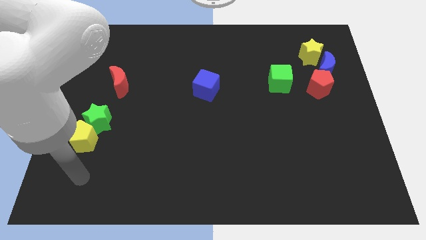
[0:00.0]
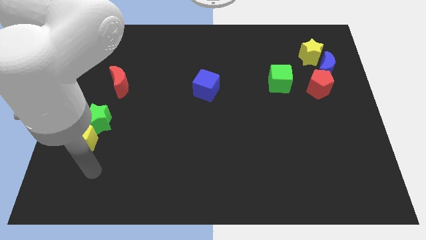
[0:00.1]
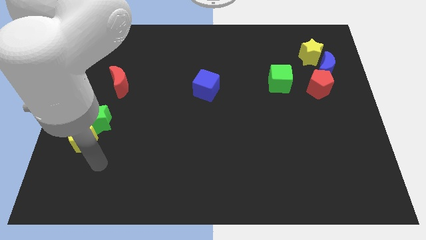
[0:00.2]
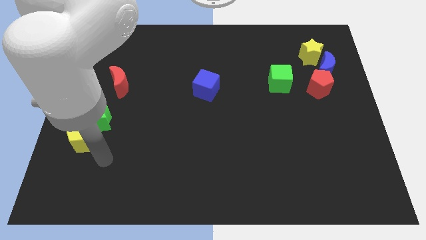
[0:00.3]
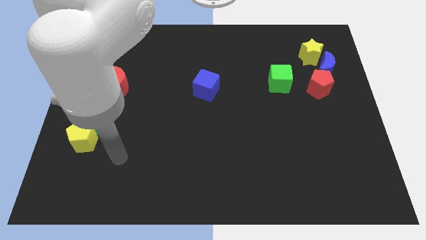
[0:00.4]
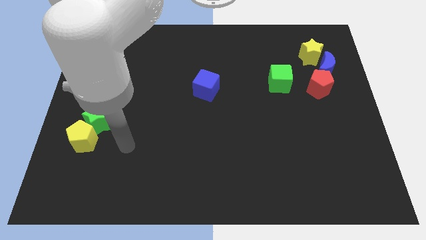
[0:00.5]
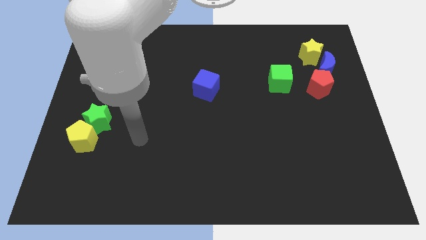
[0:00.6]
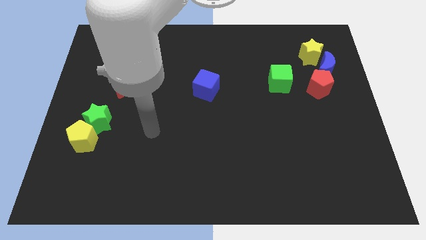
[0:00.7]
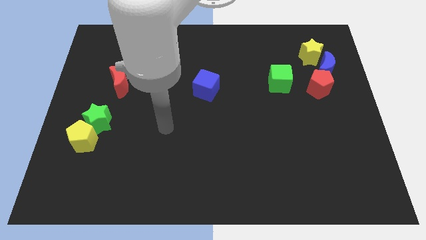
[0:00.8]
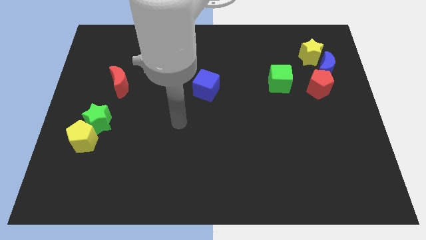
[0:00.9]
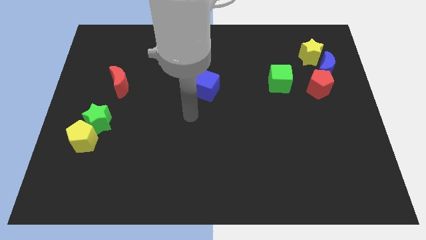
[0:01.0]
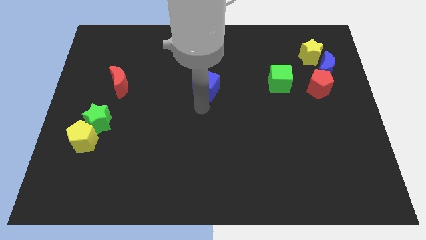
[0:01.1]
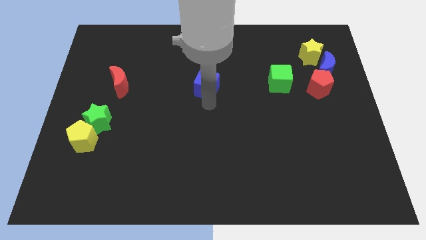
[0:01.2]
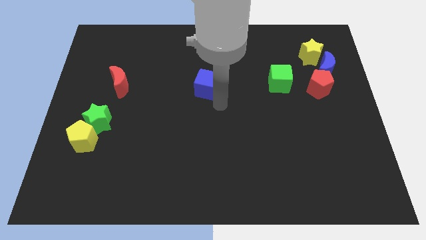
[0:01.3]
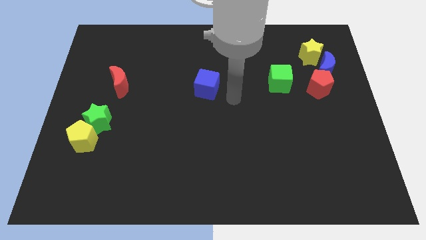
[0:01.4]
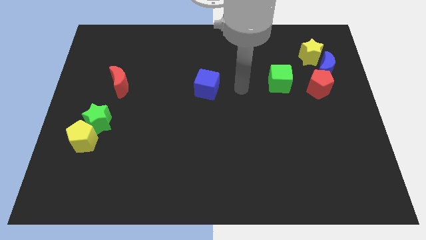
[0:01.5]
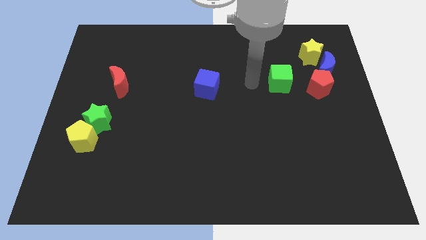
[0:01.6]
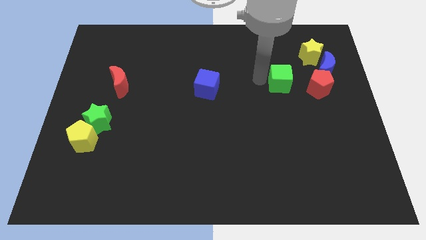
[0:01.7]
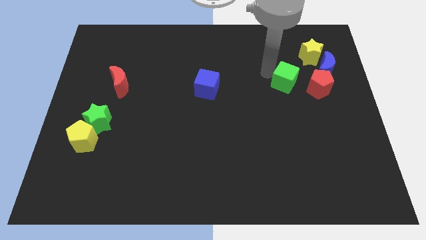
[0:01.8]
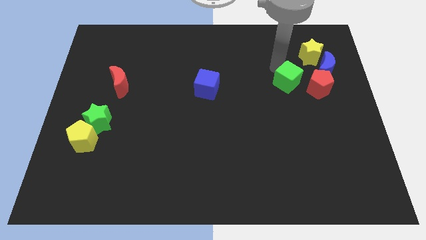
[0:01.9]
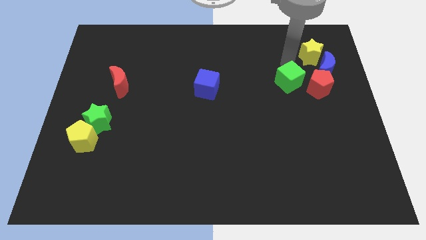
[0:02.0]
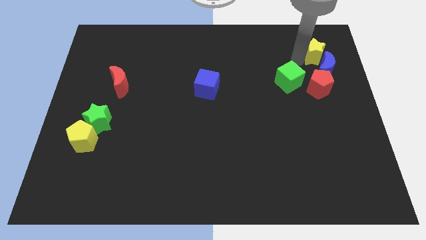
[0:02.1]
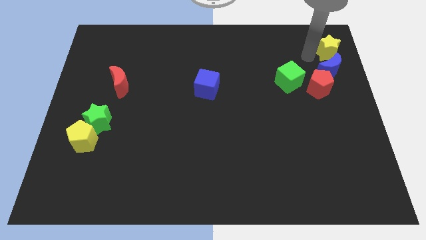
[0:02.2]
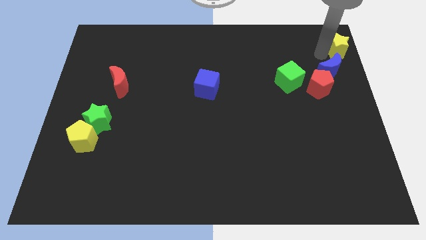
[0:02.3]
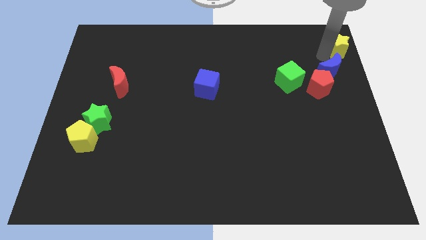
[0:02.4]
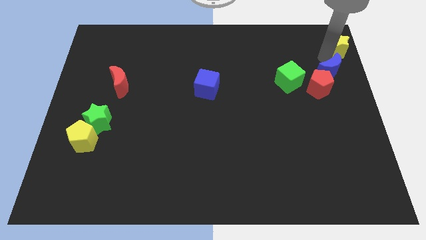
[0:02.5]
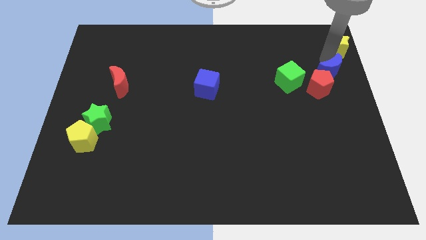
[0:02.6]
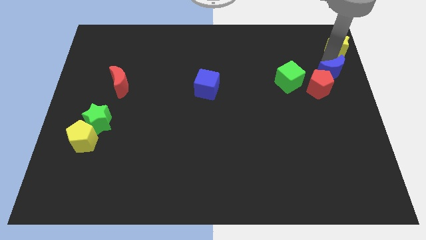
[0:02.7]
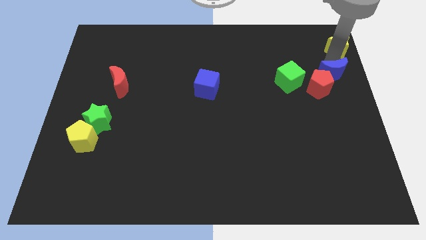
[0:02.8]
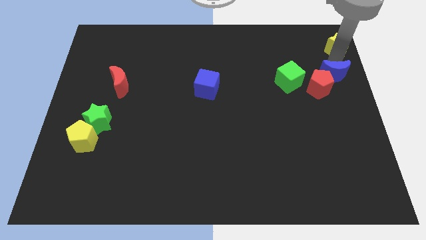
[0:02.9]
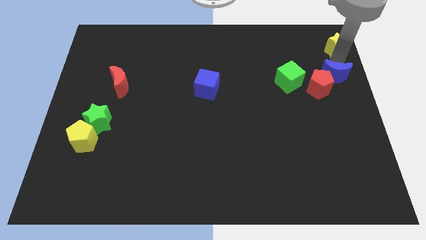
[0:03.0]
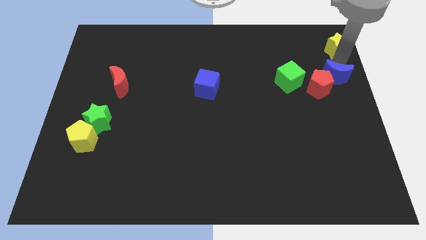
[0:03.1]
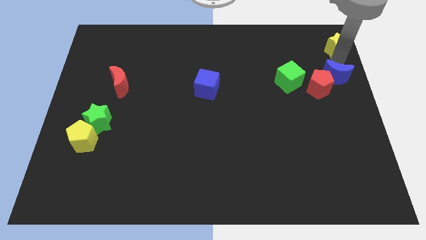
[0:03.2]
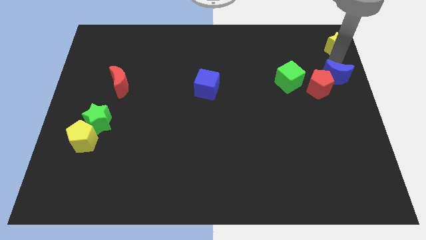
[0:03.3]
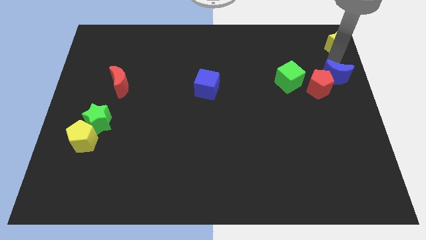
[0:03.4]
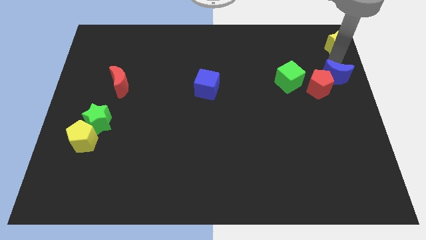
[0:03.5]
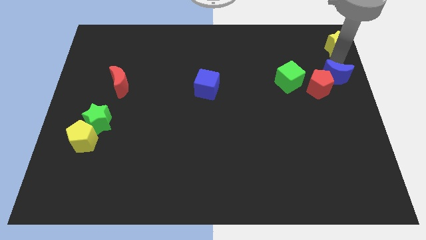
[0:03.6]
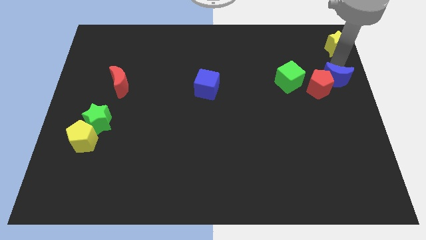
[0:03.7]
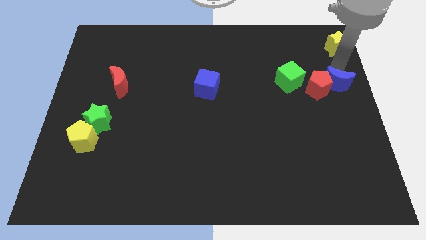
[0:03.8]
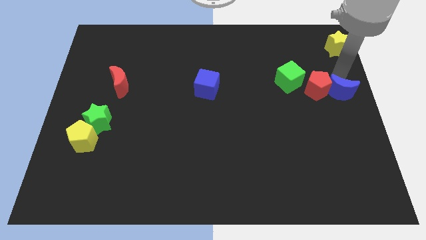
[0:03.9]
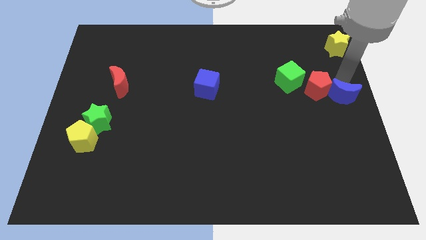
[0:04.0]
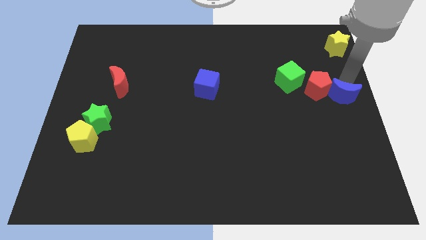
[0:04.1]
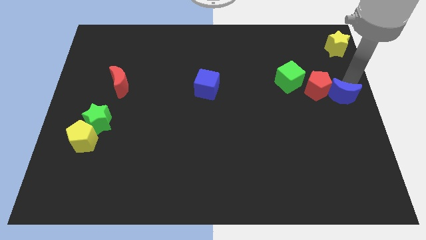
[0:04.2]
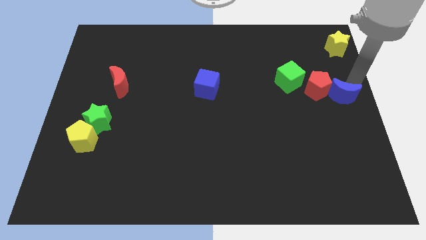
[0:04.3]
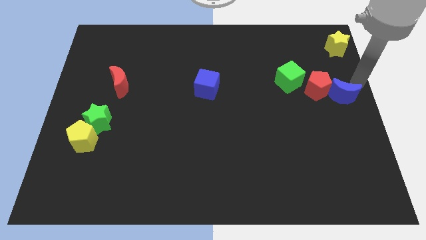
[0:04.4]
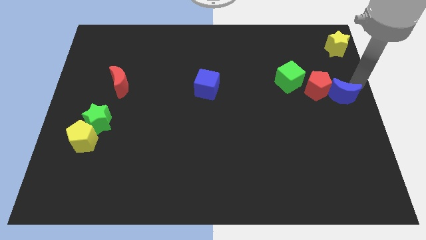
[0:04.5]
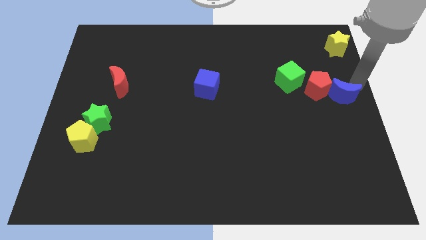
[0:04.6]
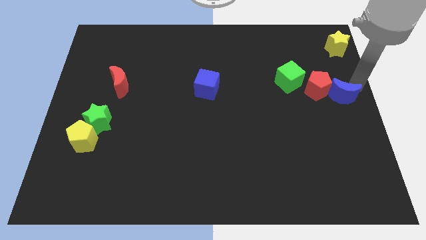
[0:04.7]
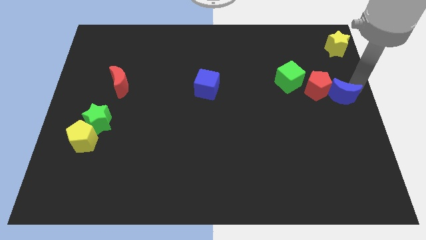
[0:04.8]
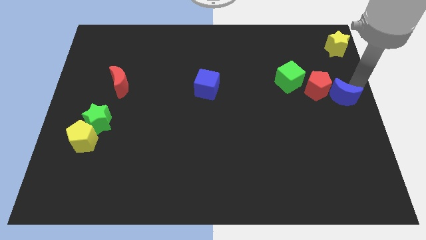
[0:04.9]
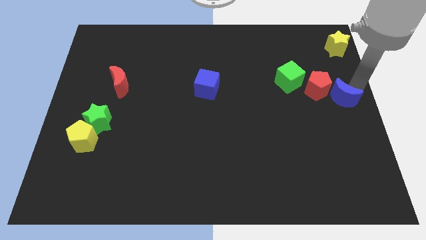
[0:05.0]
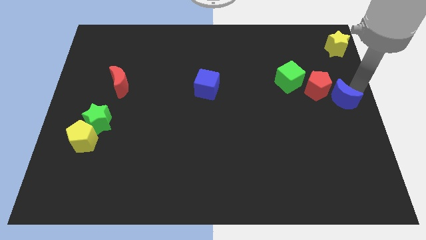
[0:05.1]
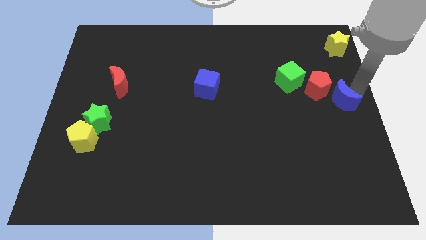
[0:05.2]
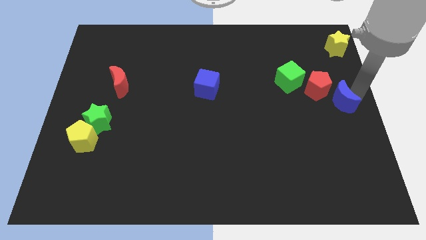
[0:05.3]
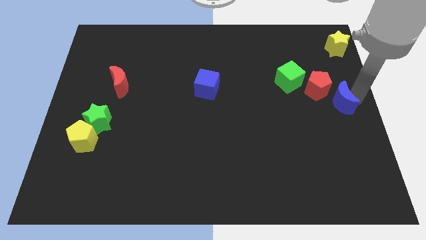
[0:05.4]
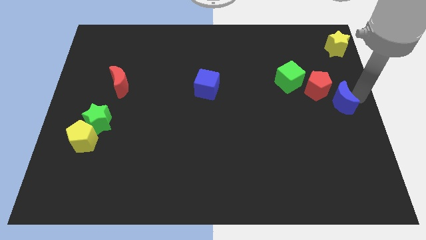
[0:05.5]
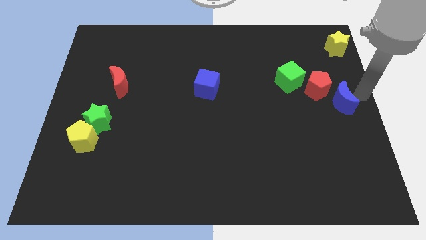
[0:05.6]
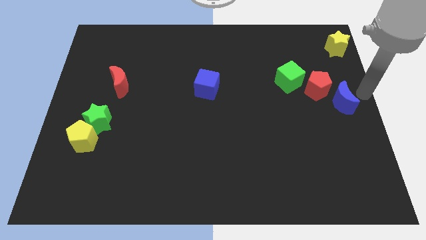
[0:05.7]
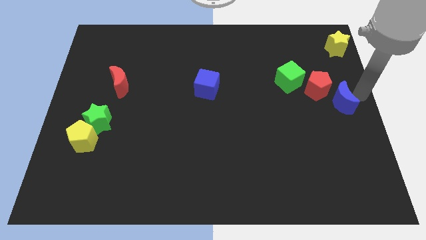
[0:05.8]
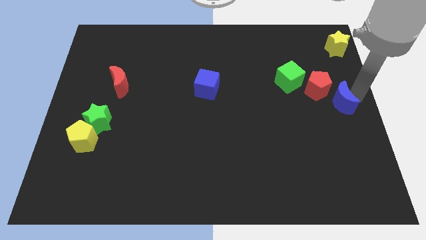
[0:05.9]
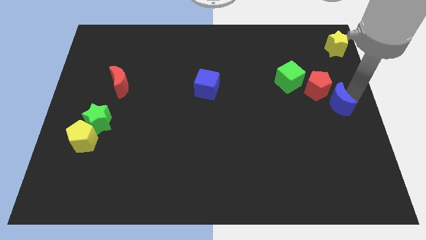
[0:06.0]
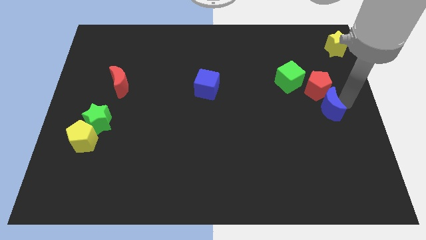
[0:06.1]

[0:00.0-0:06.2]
push the blue moon somewhat down and then to the left

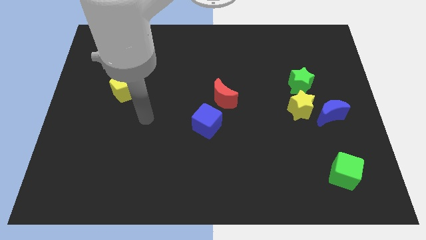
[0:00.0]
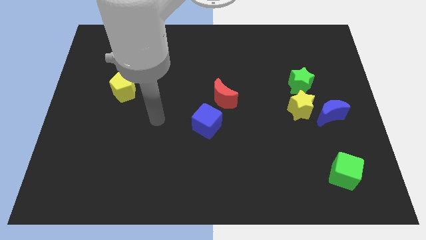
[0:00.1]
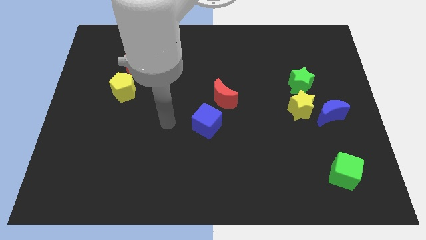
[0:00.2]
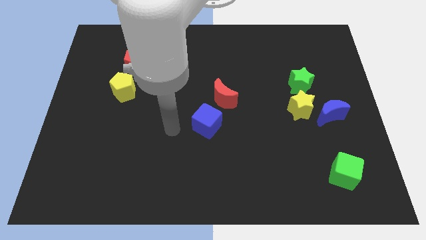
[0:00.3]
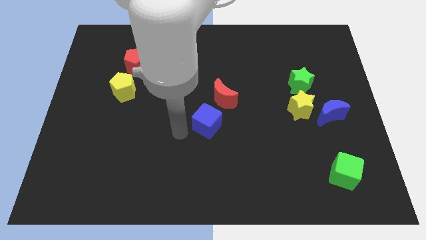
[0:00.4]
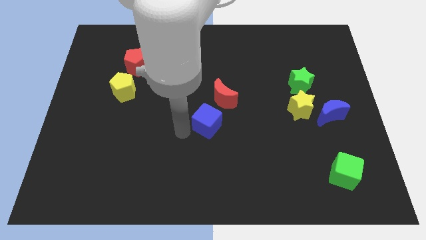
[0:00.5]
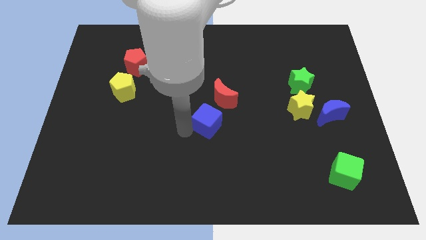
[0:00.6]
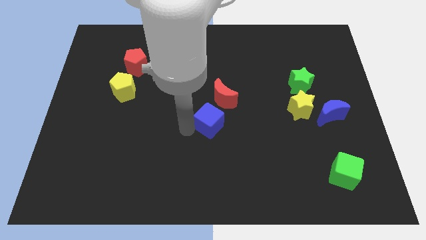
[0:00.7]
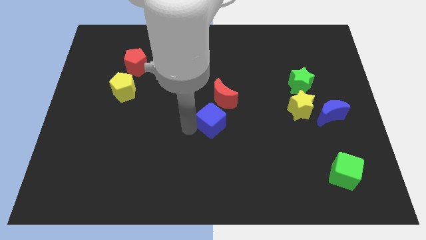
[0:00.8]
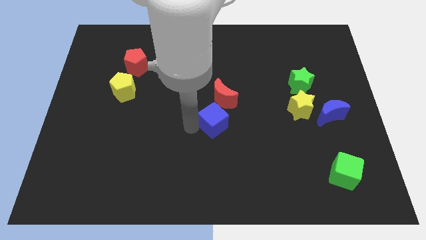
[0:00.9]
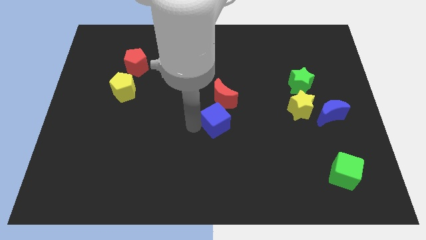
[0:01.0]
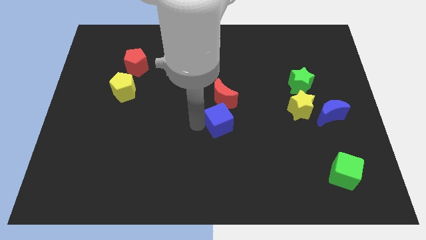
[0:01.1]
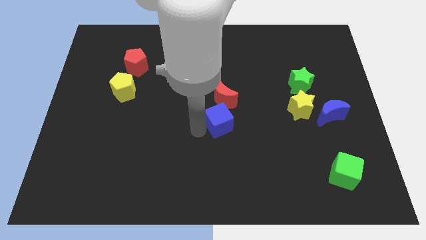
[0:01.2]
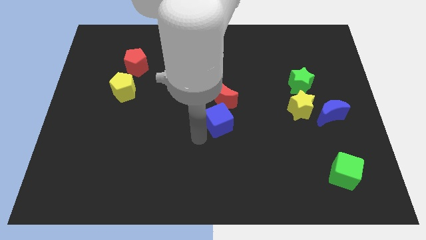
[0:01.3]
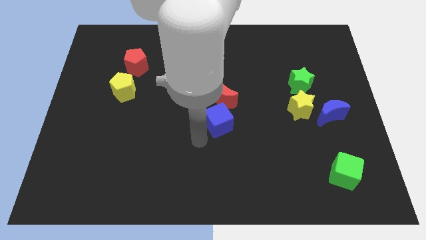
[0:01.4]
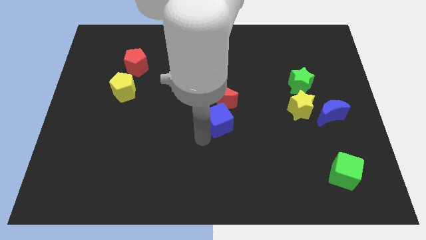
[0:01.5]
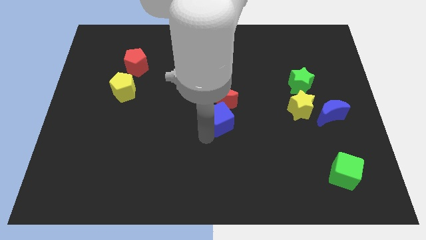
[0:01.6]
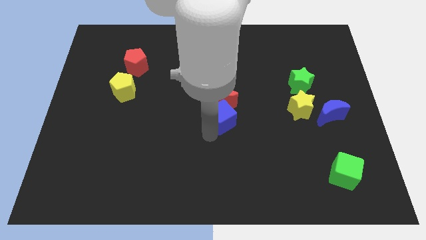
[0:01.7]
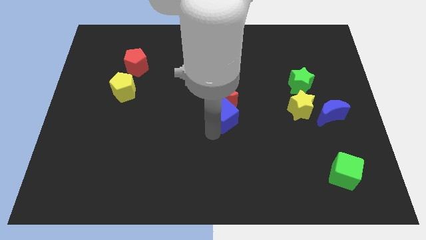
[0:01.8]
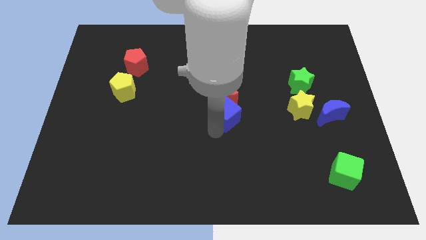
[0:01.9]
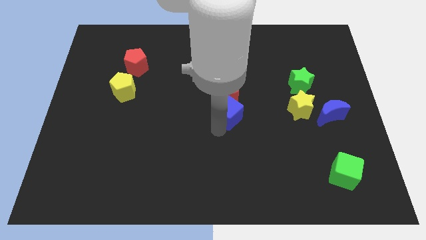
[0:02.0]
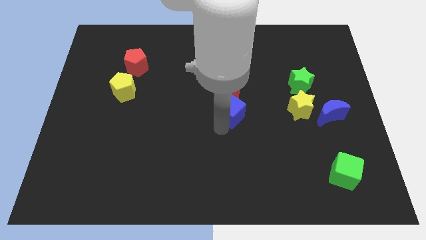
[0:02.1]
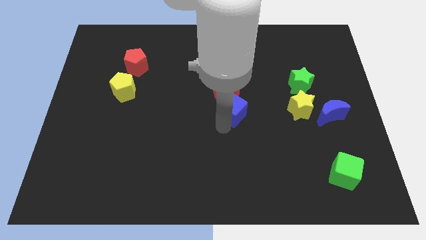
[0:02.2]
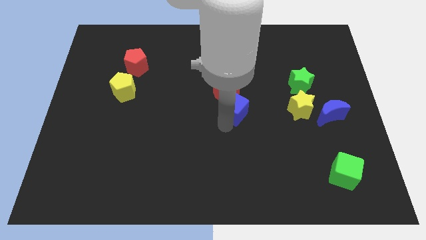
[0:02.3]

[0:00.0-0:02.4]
push the blue cube upwards and right somewhat
